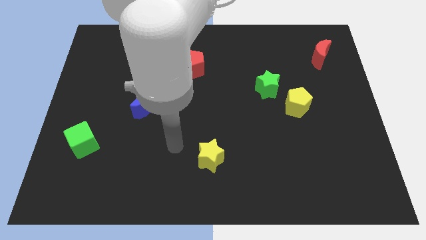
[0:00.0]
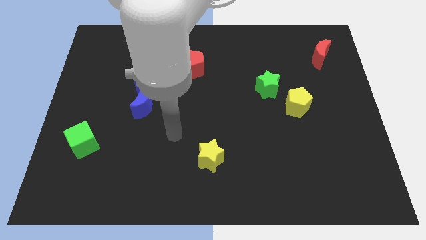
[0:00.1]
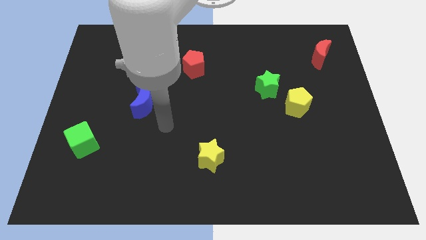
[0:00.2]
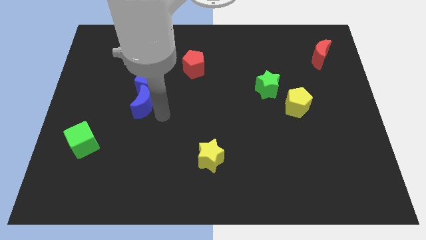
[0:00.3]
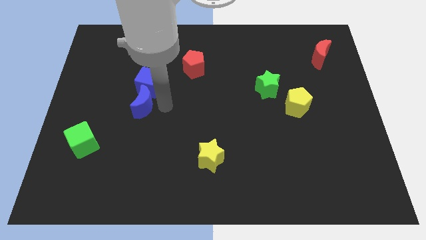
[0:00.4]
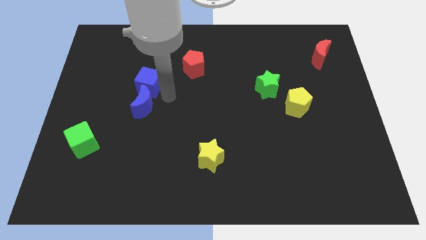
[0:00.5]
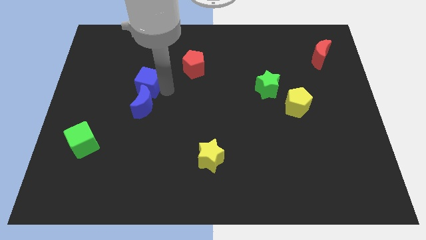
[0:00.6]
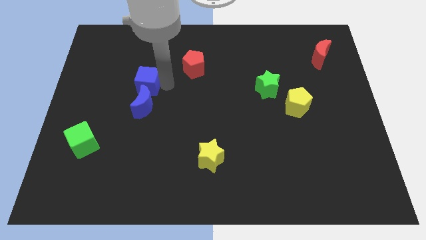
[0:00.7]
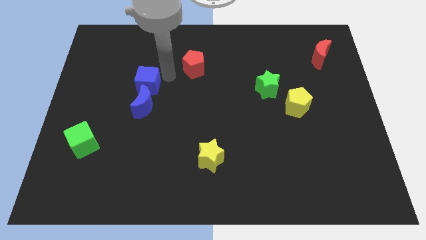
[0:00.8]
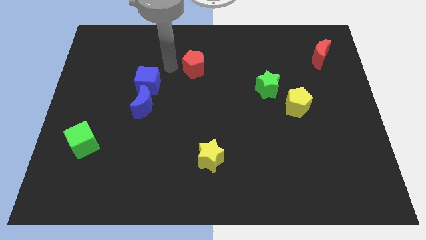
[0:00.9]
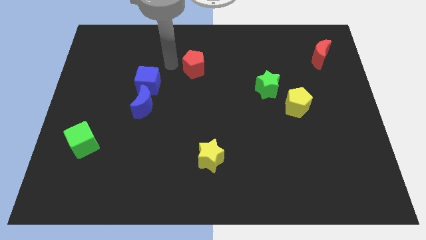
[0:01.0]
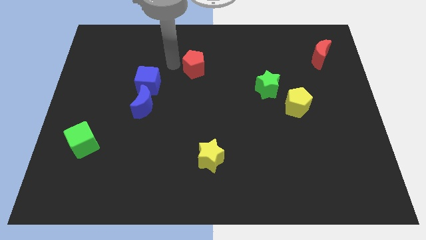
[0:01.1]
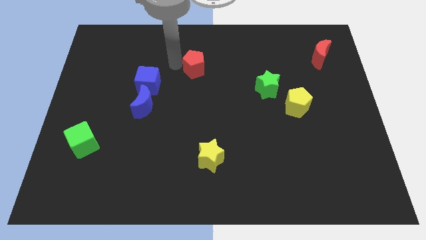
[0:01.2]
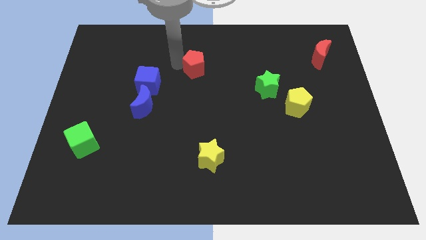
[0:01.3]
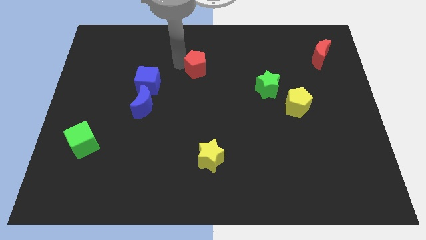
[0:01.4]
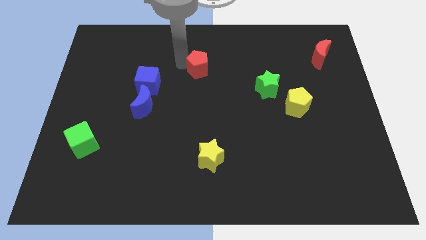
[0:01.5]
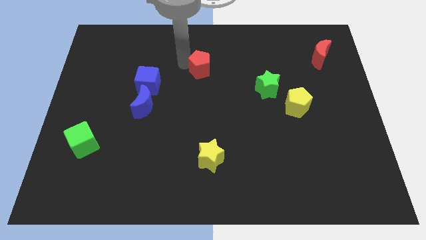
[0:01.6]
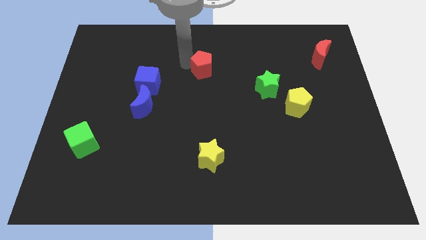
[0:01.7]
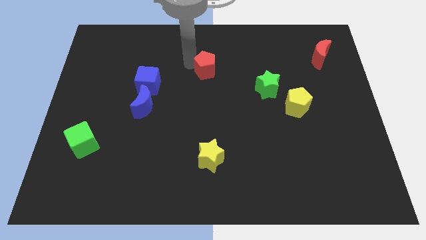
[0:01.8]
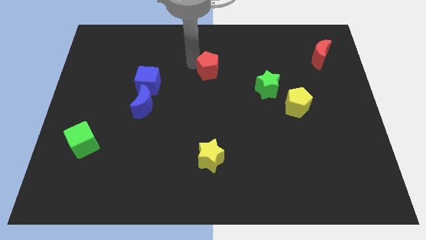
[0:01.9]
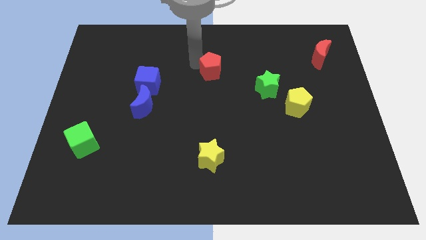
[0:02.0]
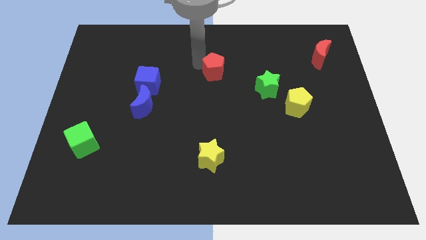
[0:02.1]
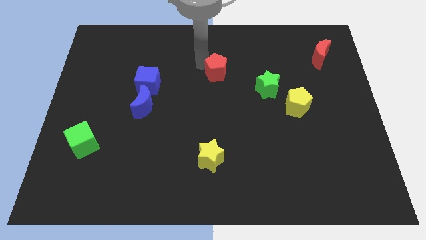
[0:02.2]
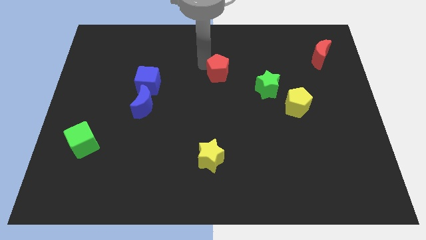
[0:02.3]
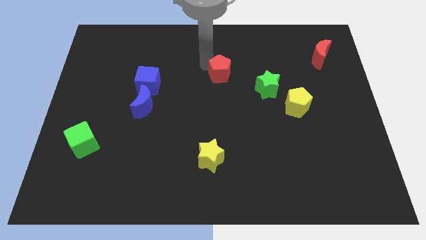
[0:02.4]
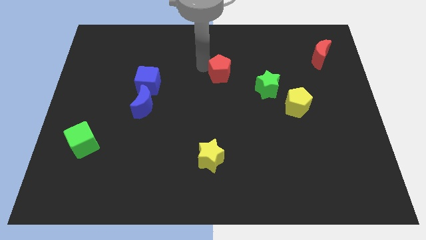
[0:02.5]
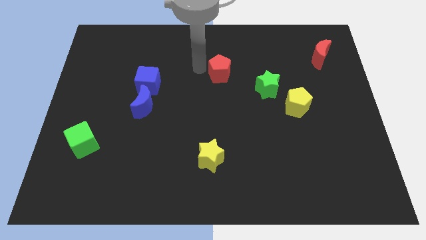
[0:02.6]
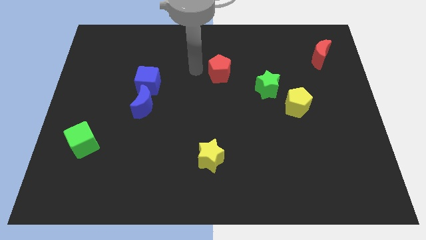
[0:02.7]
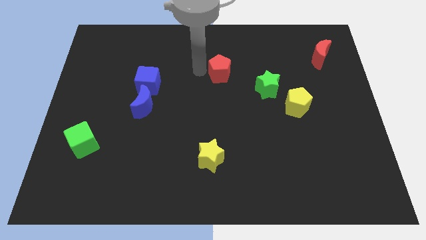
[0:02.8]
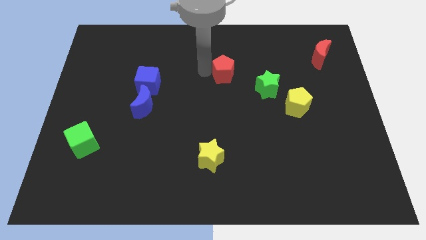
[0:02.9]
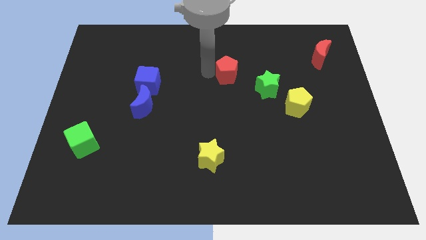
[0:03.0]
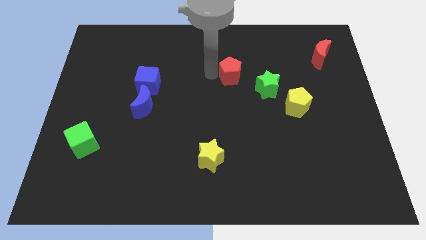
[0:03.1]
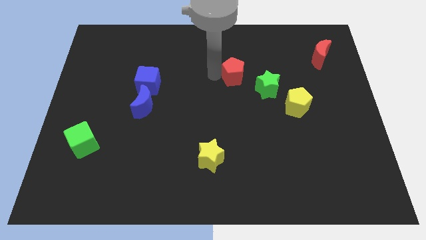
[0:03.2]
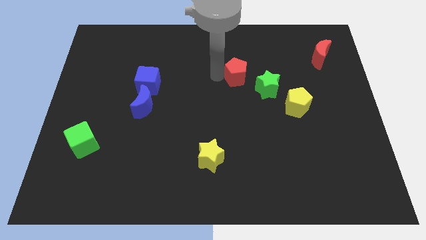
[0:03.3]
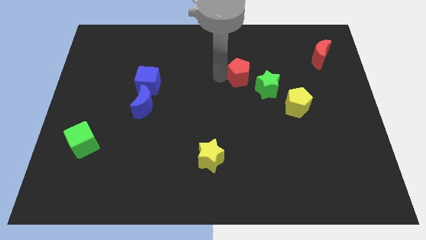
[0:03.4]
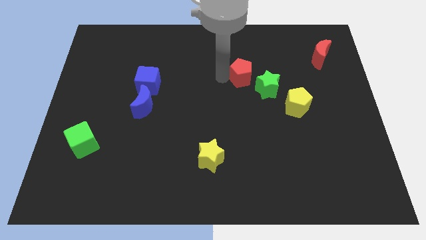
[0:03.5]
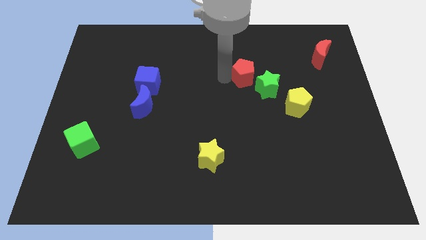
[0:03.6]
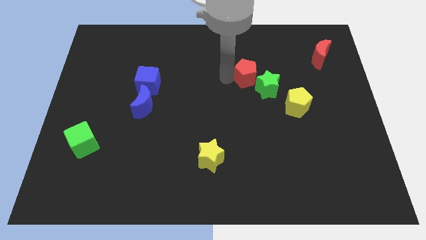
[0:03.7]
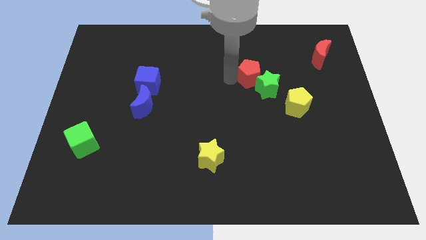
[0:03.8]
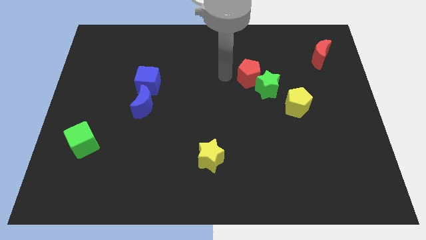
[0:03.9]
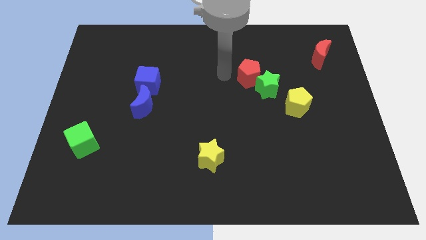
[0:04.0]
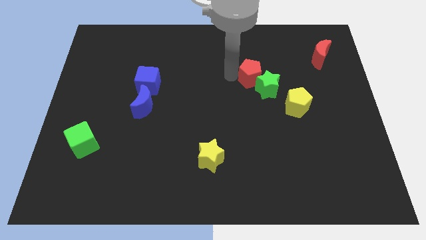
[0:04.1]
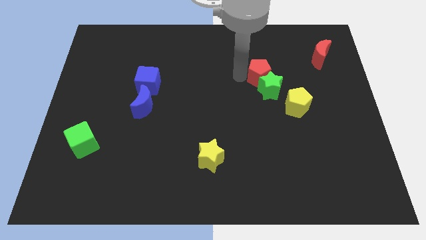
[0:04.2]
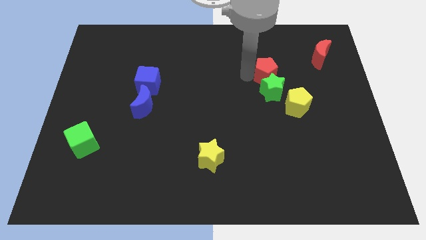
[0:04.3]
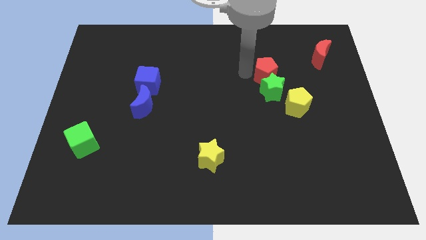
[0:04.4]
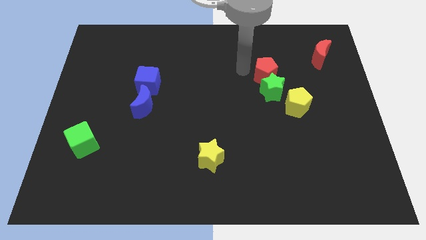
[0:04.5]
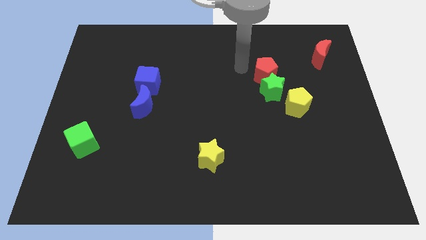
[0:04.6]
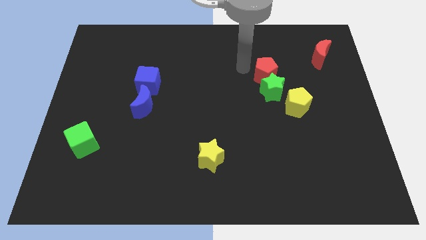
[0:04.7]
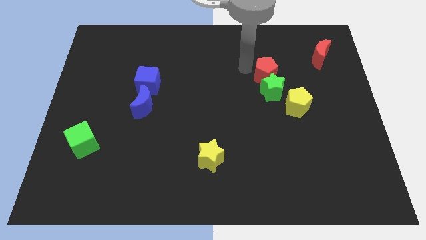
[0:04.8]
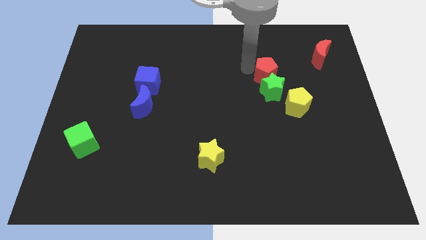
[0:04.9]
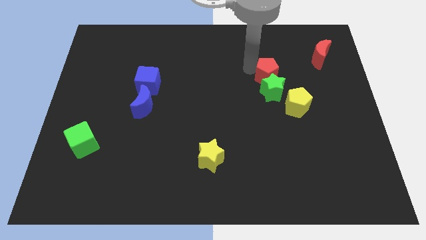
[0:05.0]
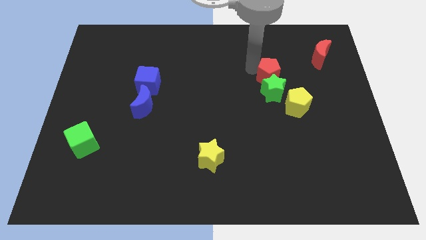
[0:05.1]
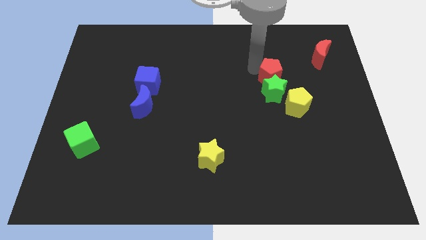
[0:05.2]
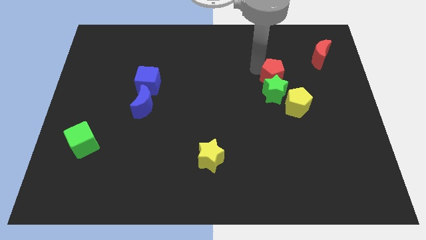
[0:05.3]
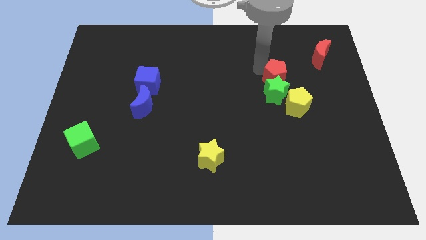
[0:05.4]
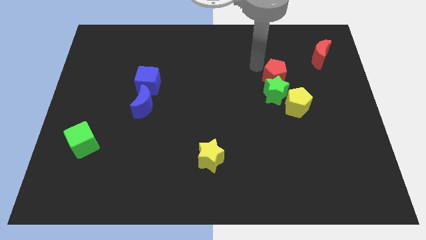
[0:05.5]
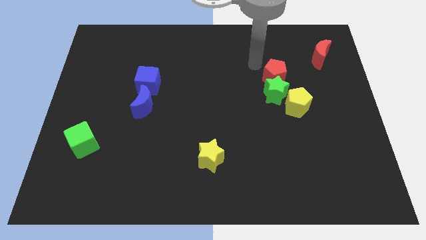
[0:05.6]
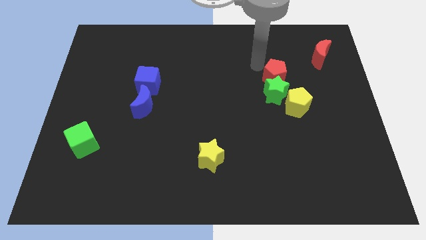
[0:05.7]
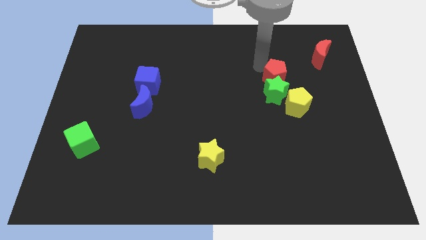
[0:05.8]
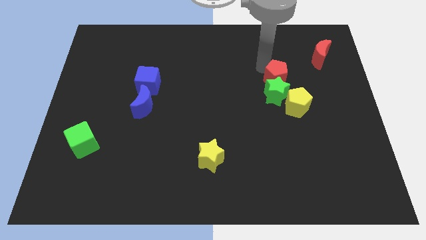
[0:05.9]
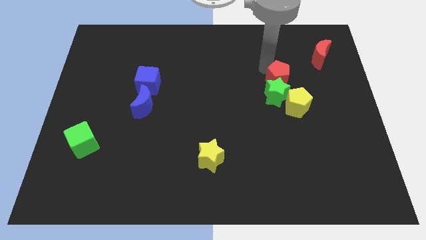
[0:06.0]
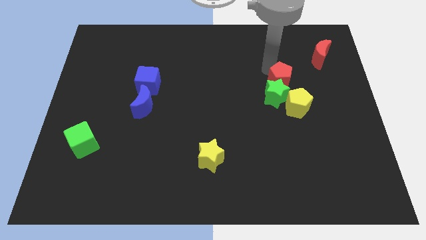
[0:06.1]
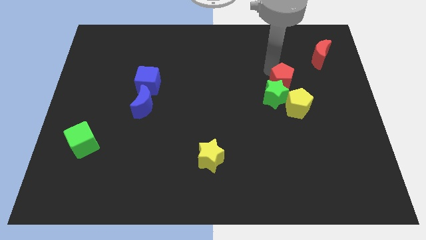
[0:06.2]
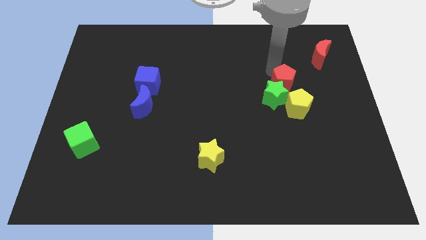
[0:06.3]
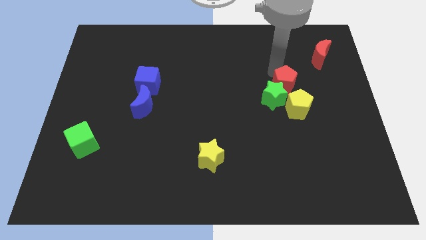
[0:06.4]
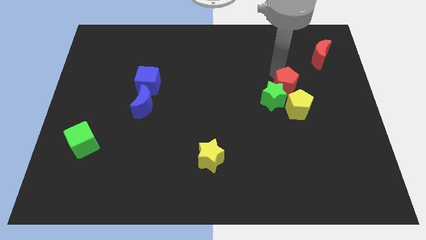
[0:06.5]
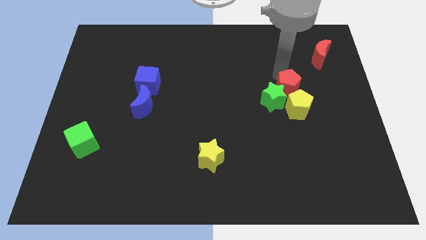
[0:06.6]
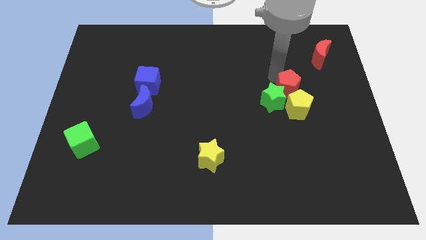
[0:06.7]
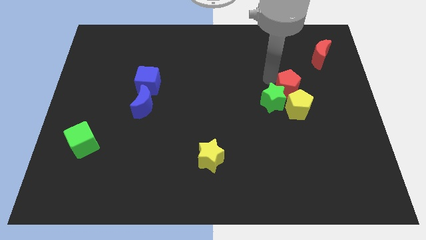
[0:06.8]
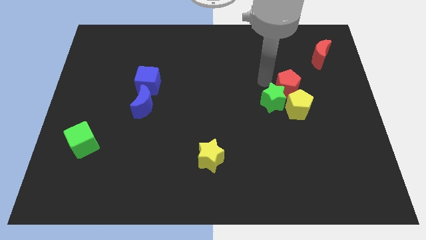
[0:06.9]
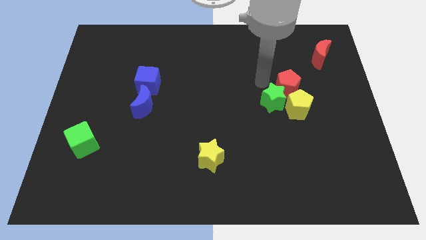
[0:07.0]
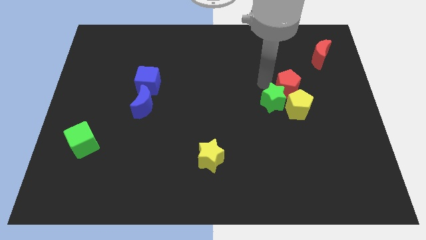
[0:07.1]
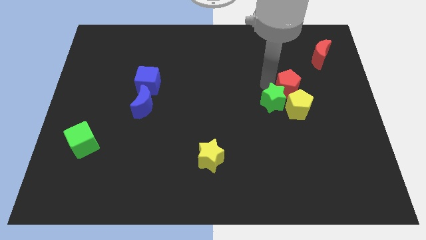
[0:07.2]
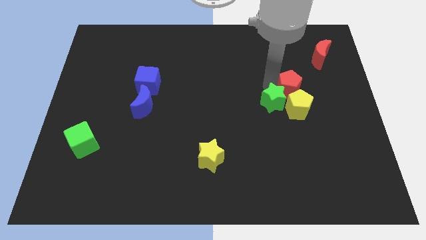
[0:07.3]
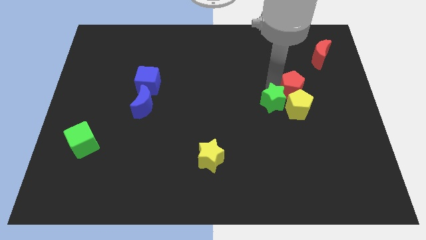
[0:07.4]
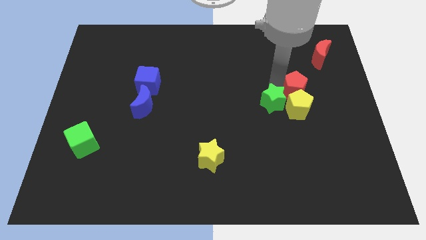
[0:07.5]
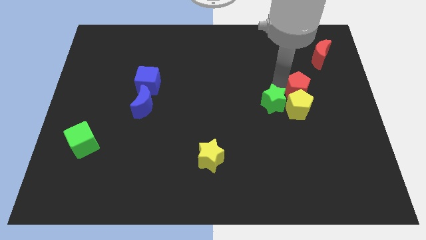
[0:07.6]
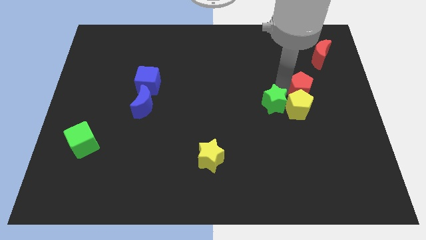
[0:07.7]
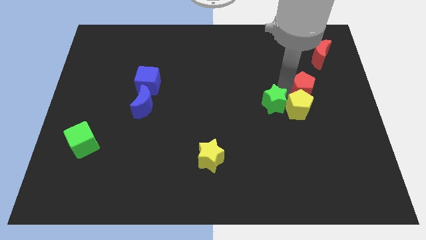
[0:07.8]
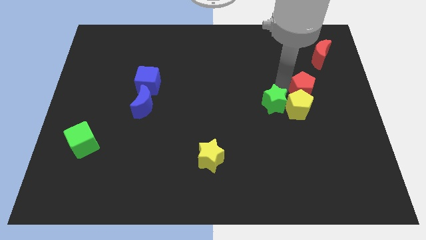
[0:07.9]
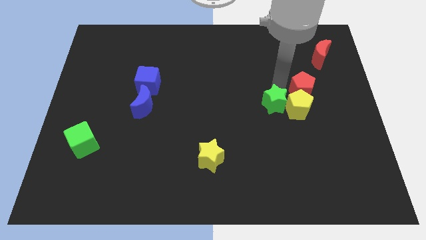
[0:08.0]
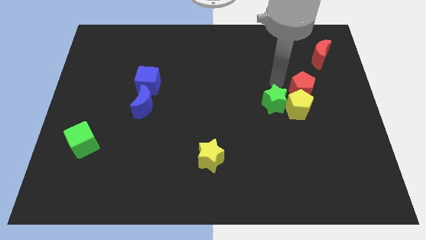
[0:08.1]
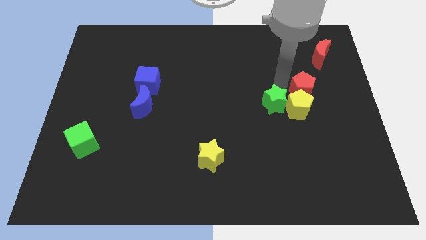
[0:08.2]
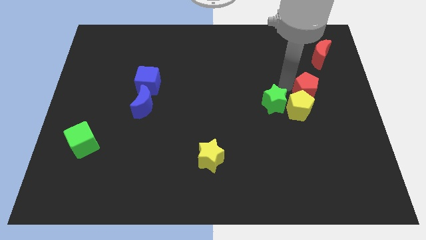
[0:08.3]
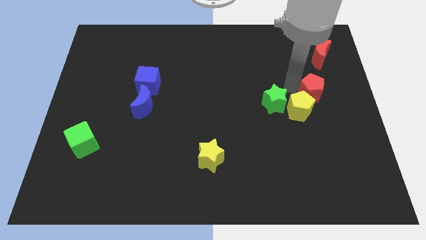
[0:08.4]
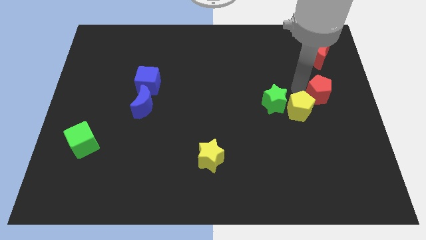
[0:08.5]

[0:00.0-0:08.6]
move the red pentagon to the right side of the board
